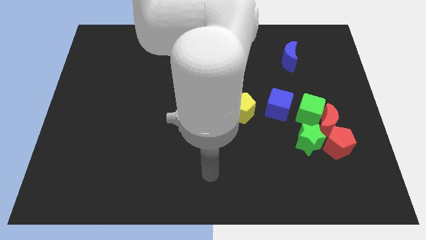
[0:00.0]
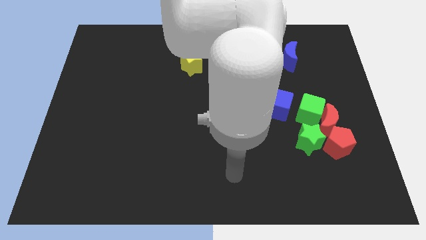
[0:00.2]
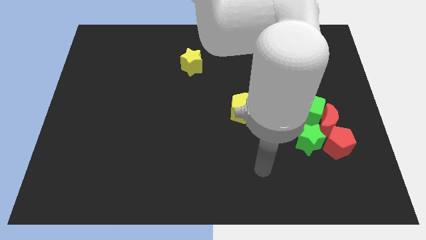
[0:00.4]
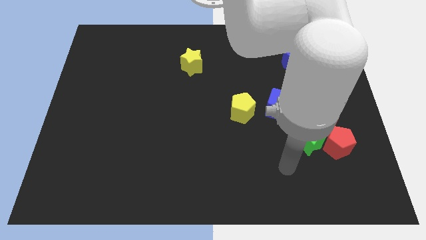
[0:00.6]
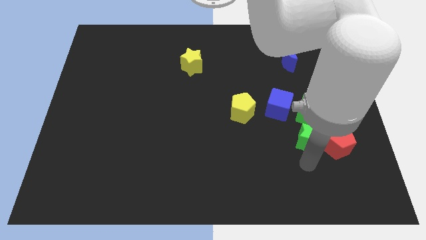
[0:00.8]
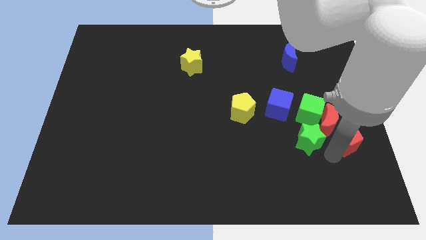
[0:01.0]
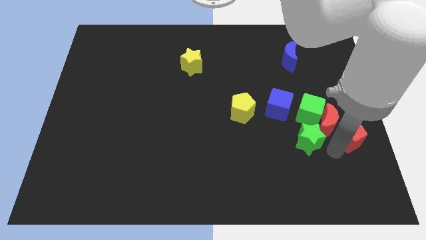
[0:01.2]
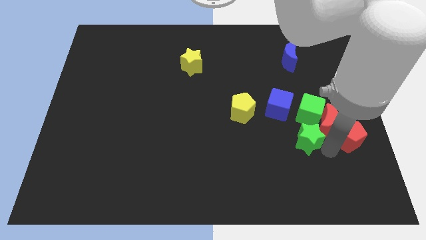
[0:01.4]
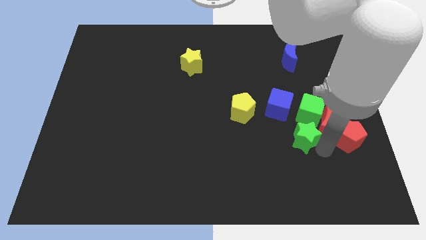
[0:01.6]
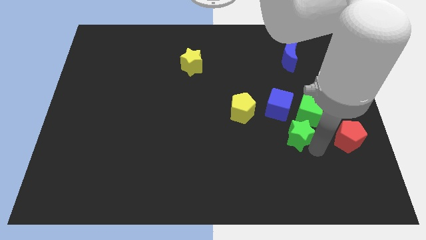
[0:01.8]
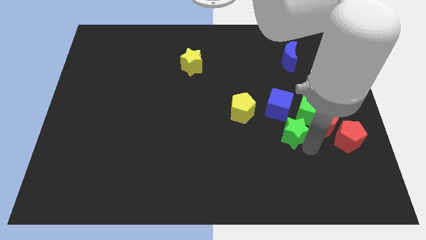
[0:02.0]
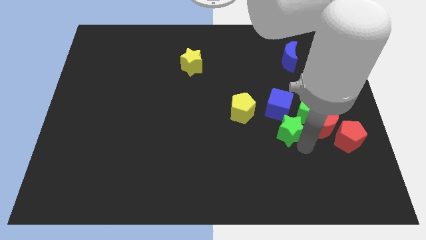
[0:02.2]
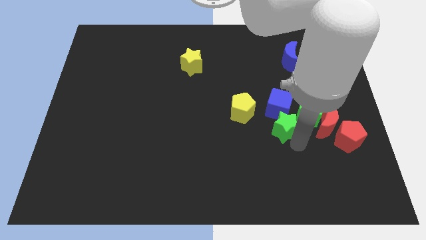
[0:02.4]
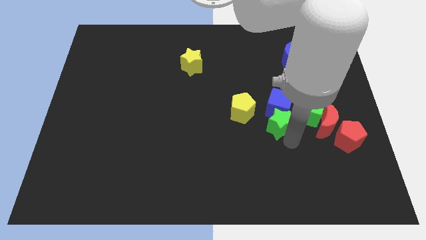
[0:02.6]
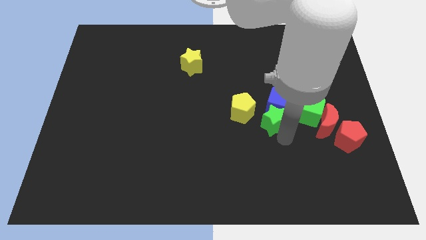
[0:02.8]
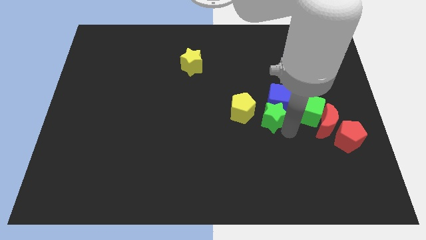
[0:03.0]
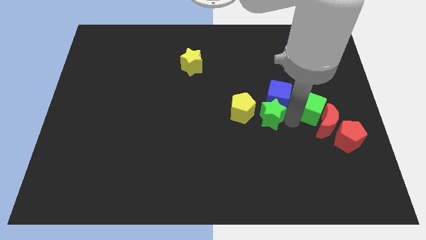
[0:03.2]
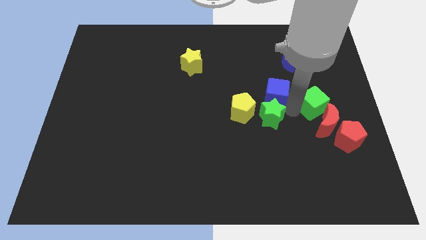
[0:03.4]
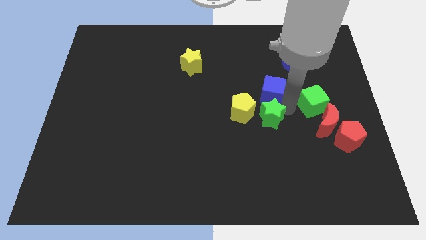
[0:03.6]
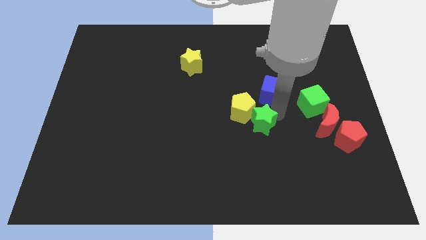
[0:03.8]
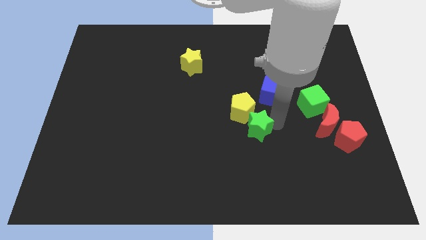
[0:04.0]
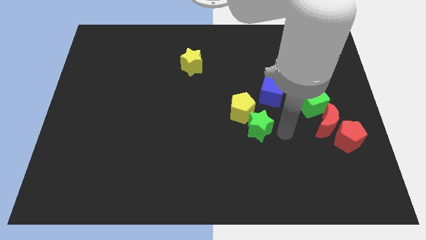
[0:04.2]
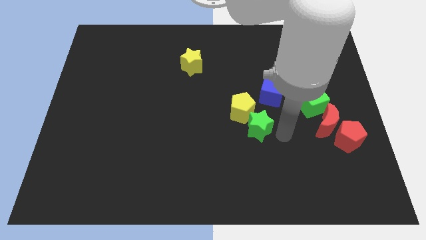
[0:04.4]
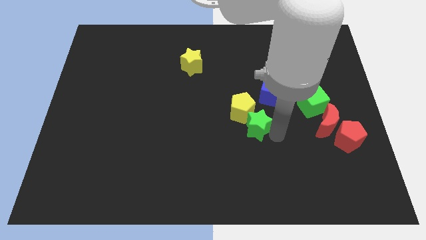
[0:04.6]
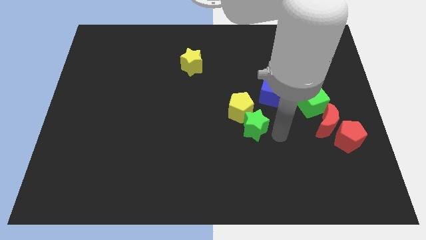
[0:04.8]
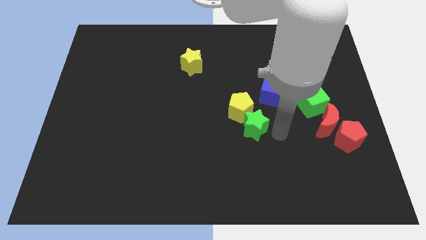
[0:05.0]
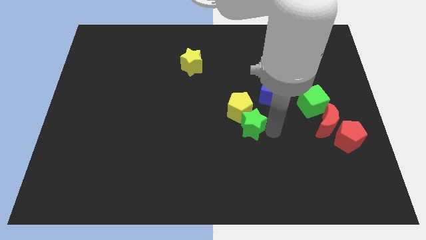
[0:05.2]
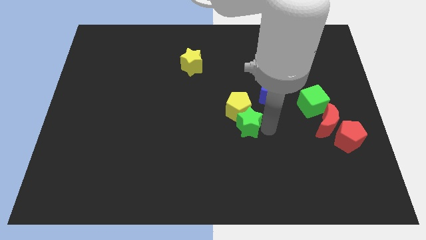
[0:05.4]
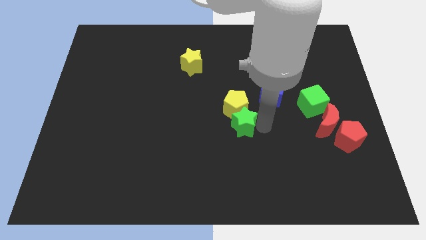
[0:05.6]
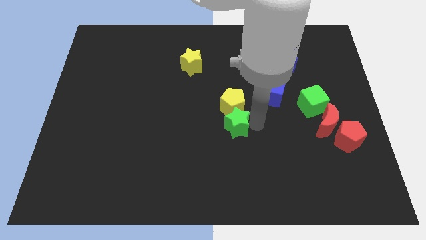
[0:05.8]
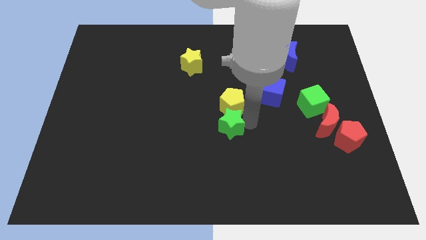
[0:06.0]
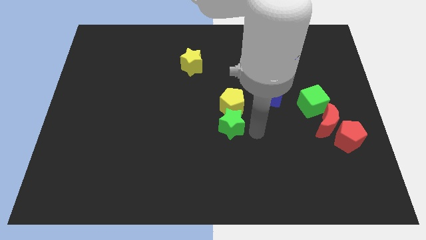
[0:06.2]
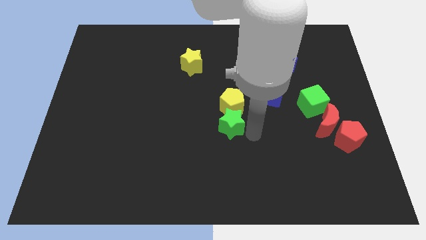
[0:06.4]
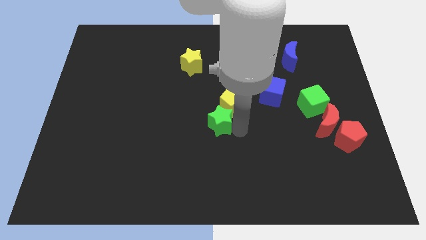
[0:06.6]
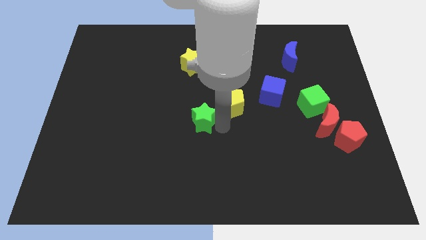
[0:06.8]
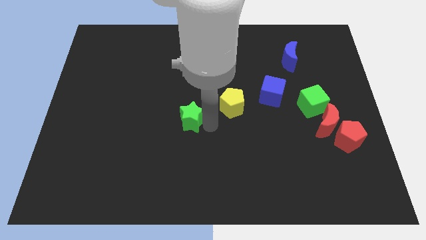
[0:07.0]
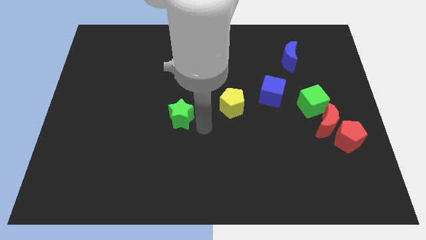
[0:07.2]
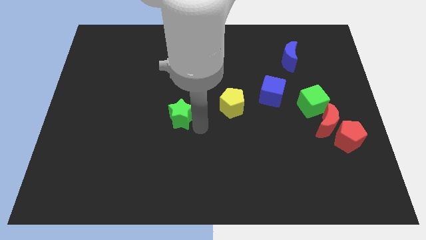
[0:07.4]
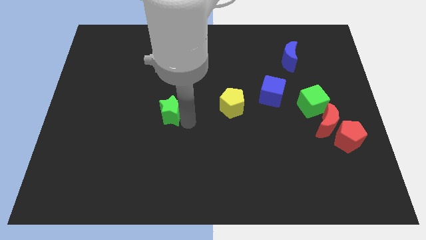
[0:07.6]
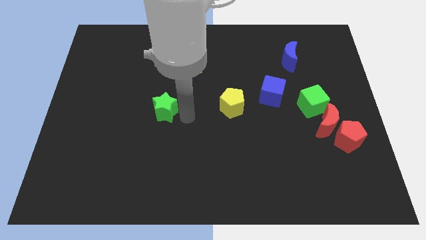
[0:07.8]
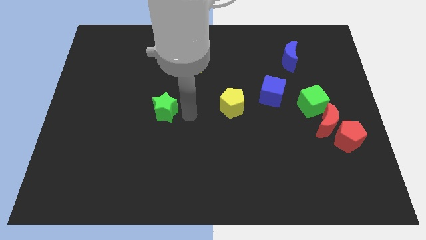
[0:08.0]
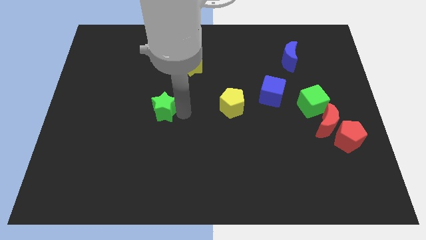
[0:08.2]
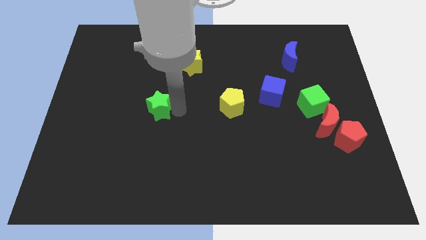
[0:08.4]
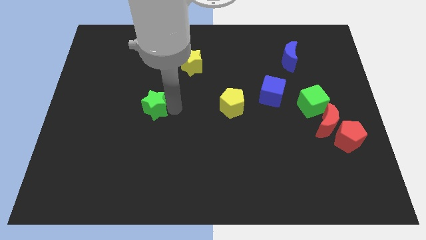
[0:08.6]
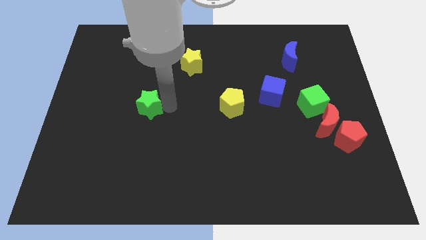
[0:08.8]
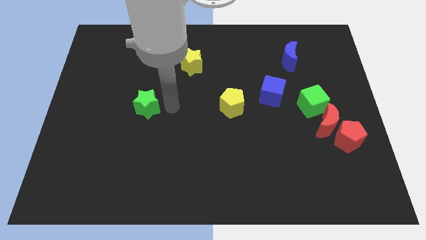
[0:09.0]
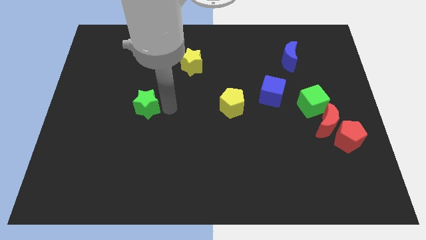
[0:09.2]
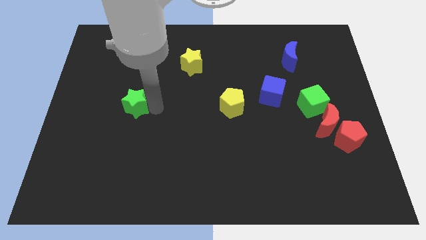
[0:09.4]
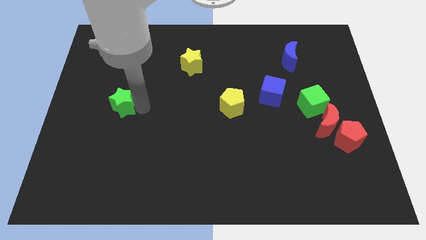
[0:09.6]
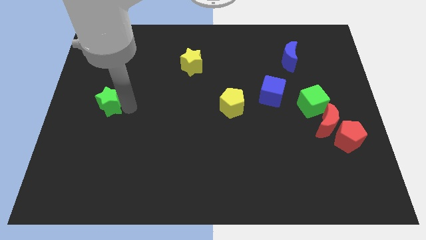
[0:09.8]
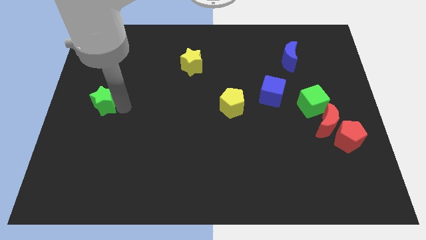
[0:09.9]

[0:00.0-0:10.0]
slide the green star to the left side of the board

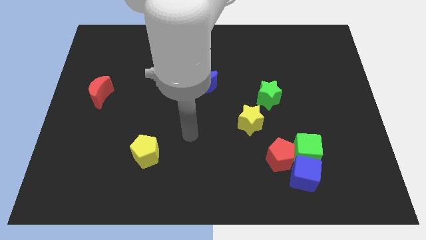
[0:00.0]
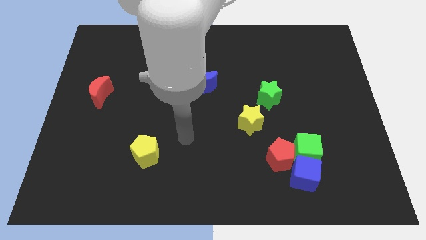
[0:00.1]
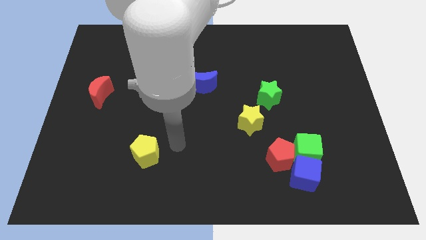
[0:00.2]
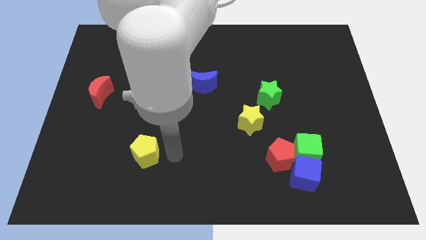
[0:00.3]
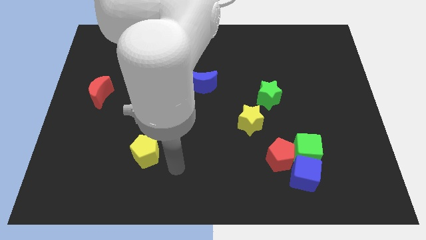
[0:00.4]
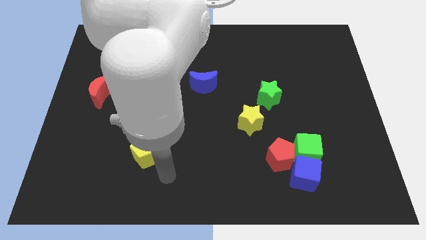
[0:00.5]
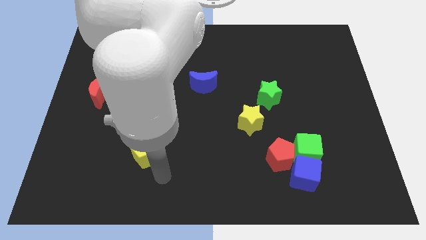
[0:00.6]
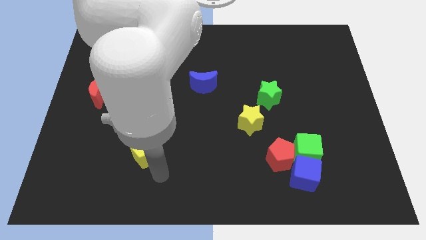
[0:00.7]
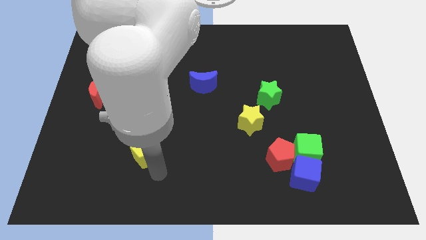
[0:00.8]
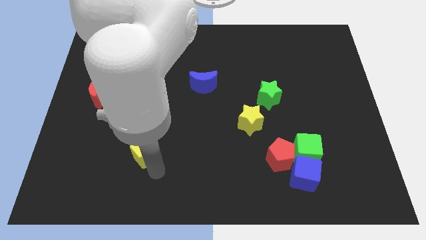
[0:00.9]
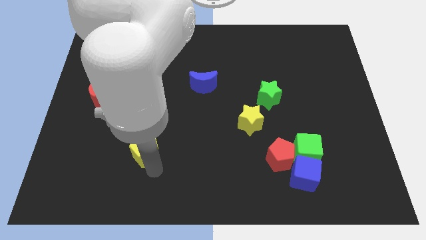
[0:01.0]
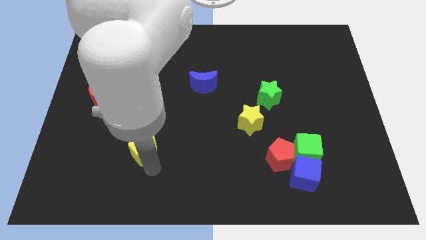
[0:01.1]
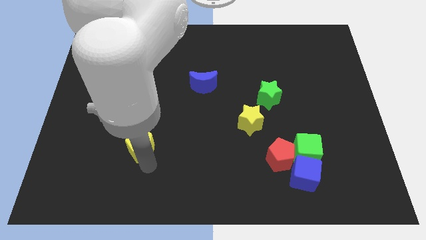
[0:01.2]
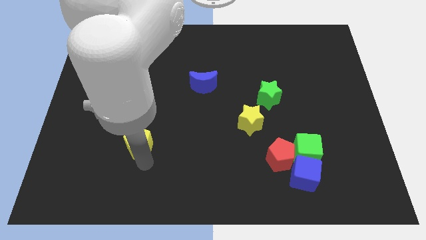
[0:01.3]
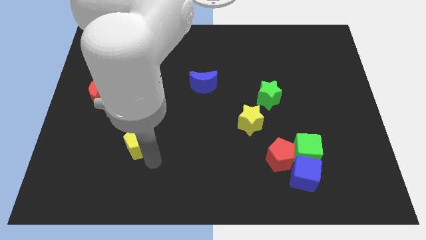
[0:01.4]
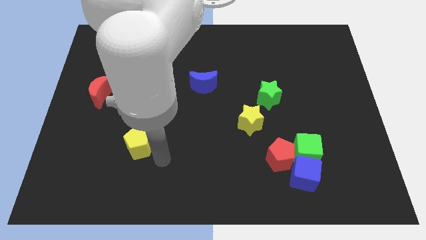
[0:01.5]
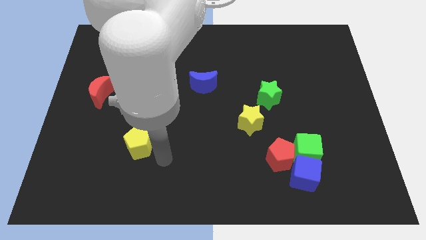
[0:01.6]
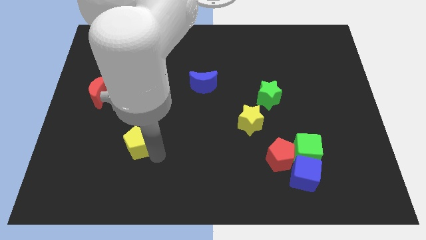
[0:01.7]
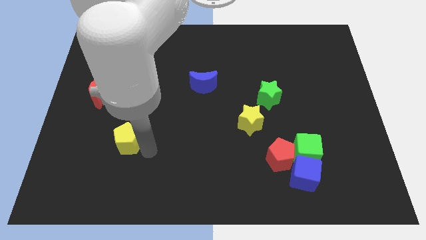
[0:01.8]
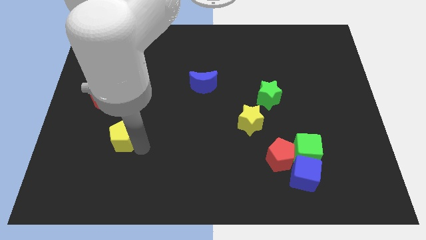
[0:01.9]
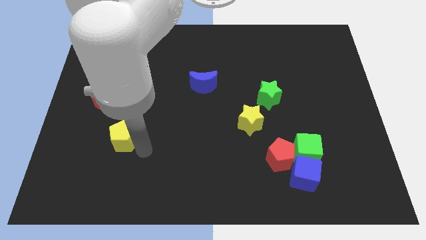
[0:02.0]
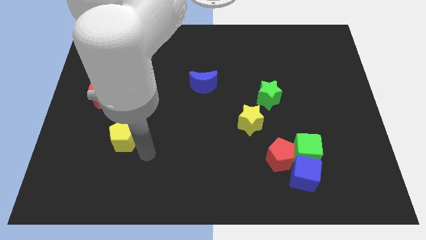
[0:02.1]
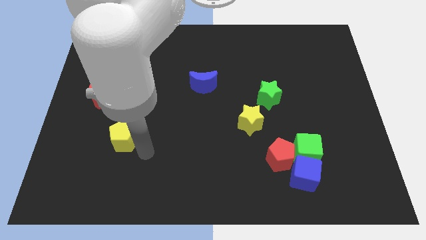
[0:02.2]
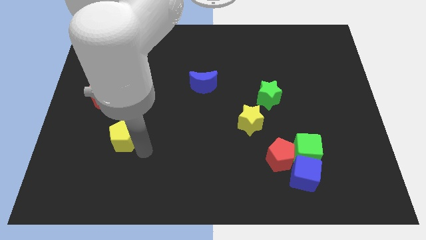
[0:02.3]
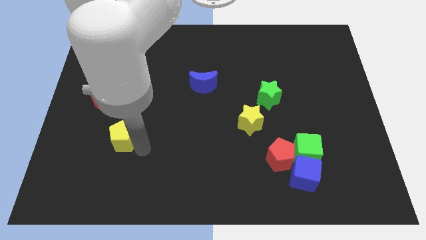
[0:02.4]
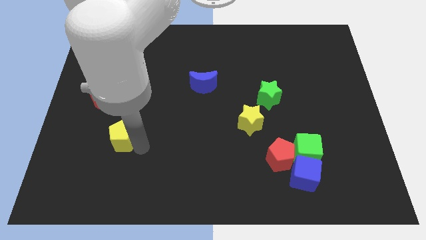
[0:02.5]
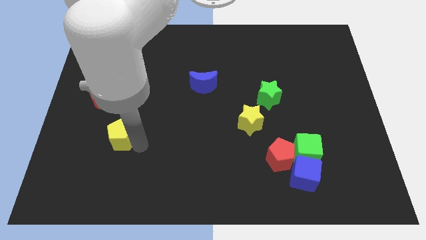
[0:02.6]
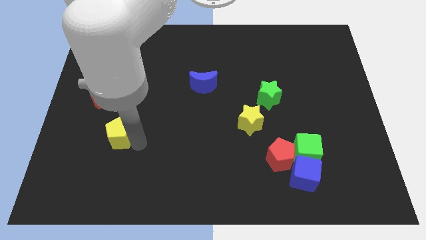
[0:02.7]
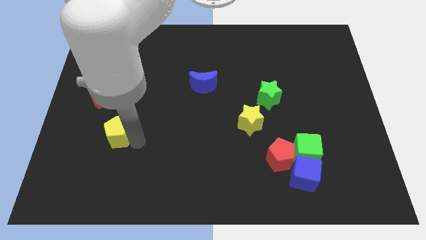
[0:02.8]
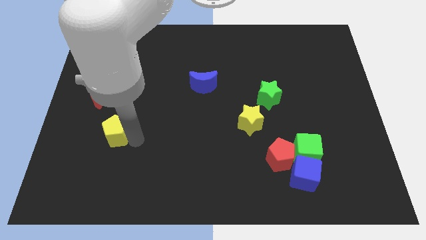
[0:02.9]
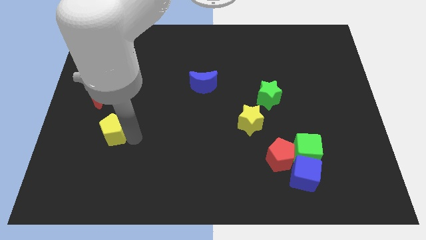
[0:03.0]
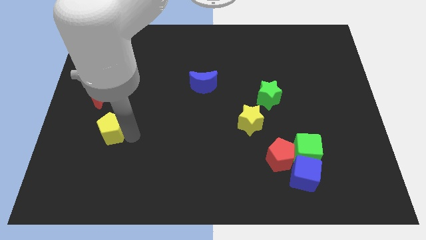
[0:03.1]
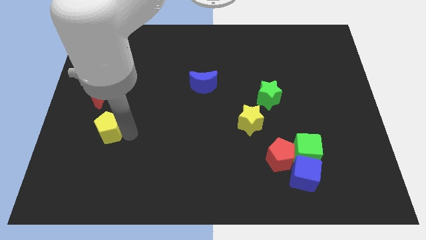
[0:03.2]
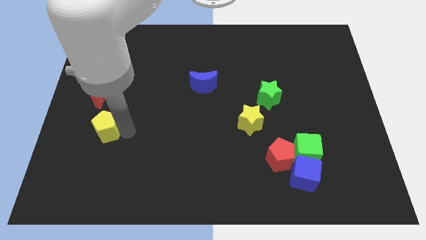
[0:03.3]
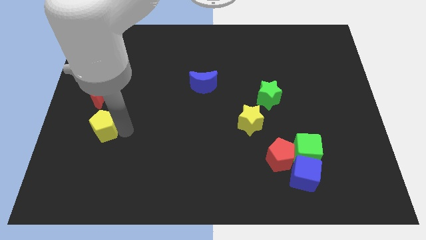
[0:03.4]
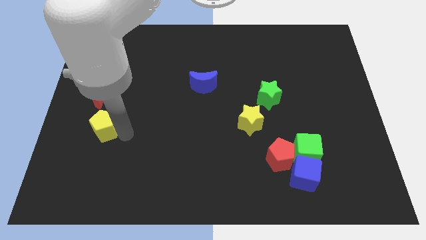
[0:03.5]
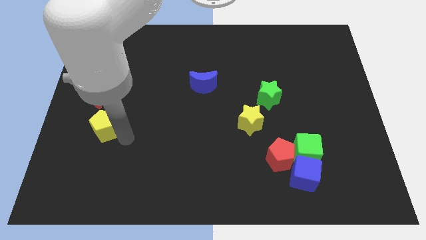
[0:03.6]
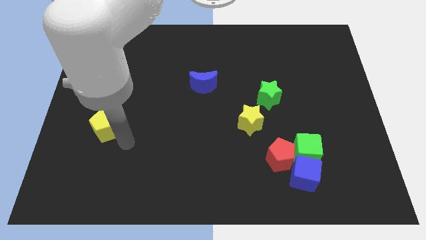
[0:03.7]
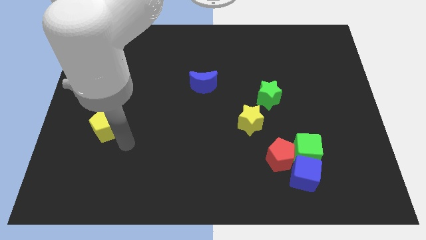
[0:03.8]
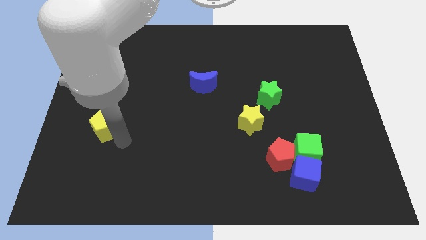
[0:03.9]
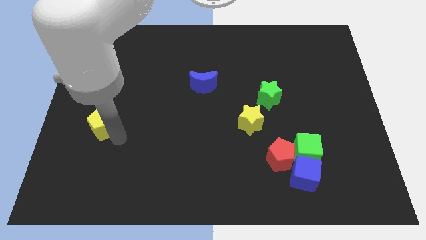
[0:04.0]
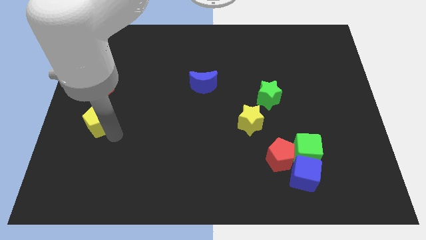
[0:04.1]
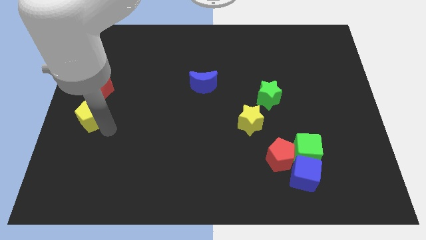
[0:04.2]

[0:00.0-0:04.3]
push the yellow pentagon to the center left
